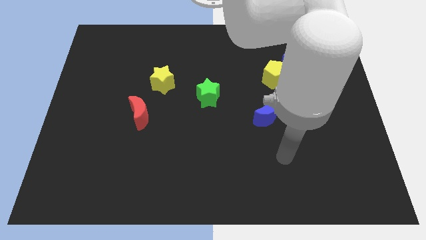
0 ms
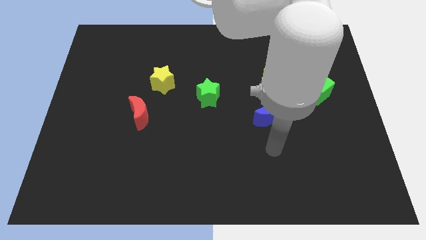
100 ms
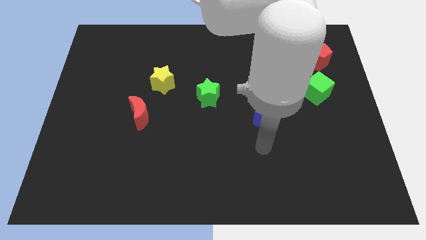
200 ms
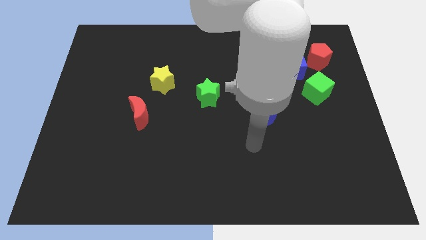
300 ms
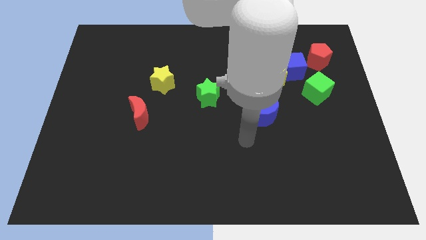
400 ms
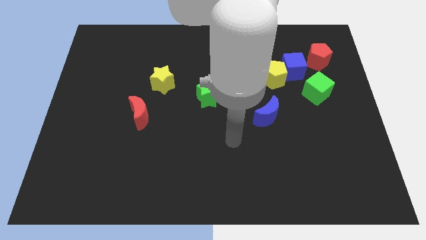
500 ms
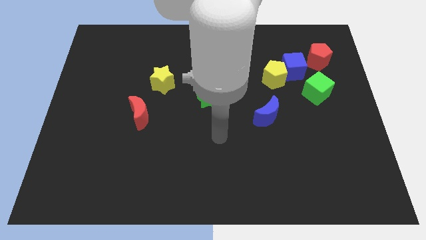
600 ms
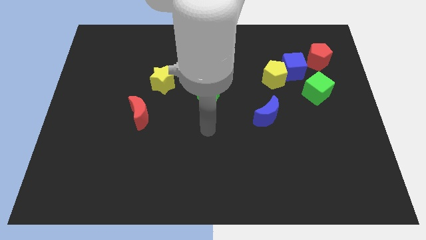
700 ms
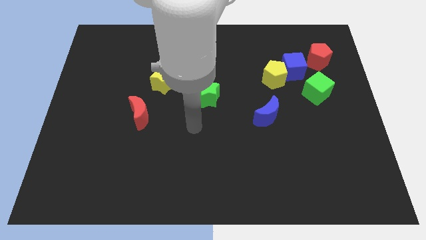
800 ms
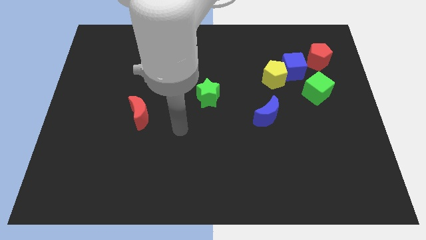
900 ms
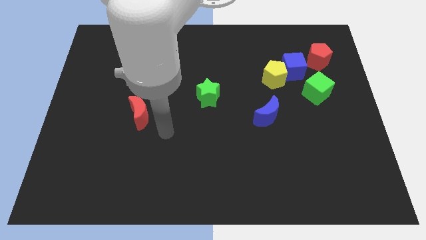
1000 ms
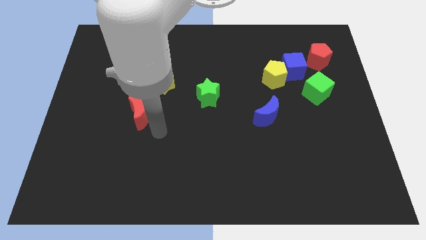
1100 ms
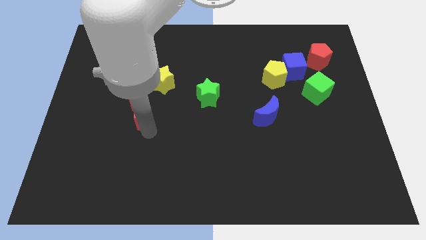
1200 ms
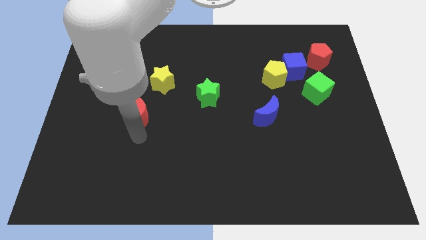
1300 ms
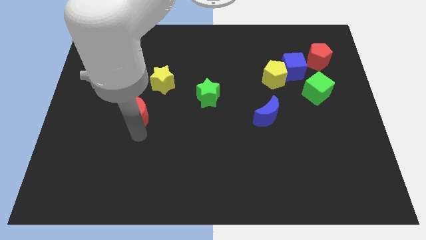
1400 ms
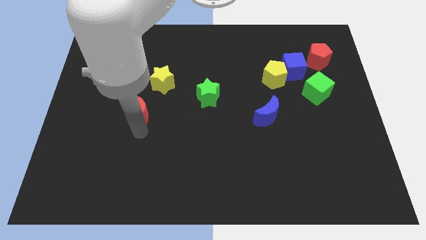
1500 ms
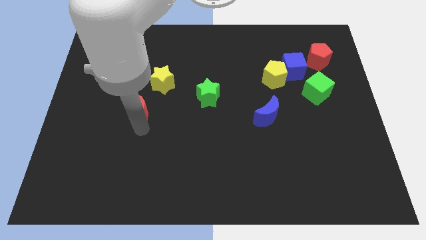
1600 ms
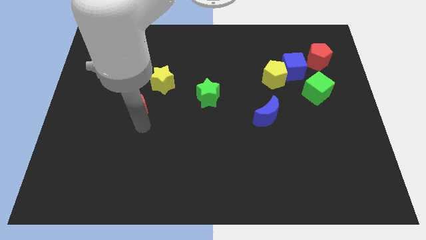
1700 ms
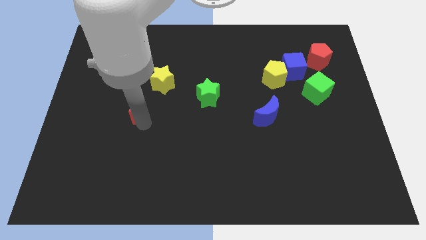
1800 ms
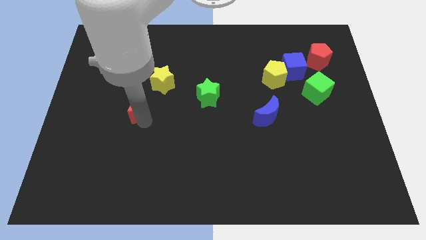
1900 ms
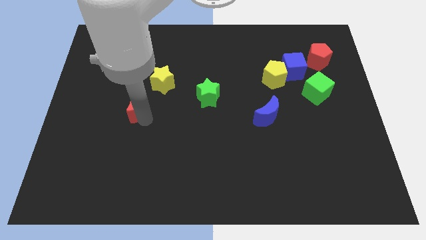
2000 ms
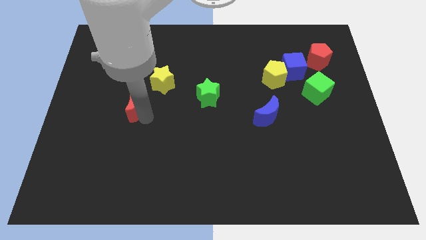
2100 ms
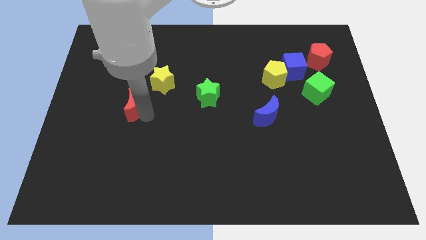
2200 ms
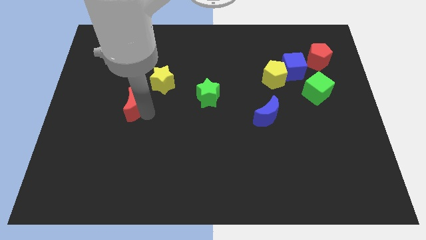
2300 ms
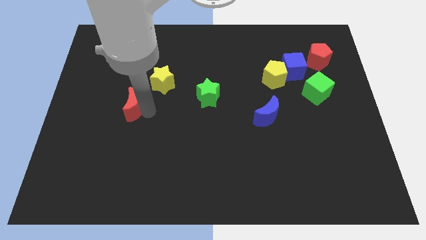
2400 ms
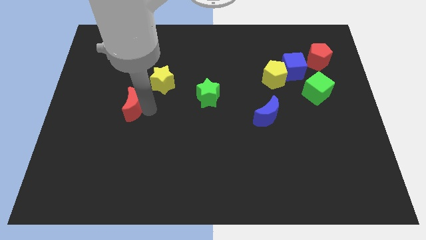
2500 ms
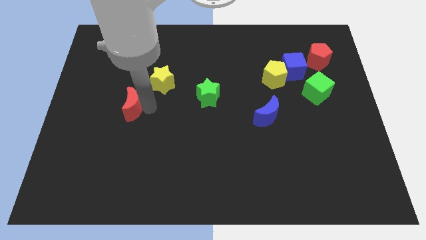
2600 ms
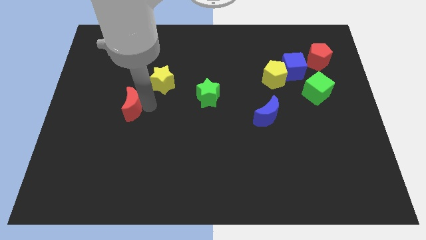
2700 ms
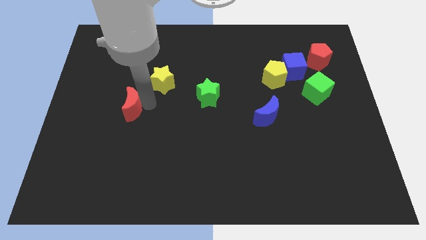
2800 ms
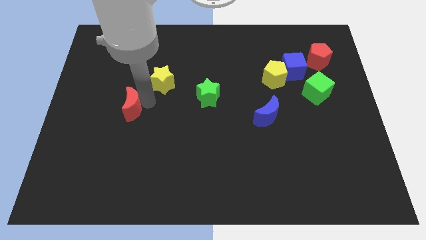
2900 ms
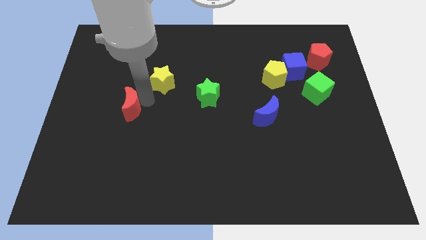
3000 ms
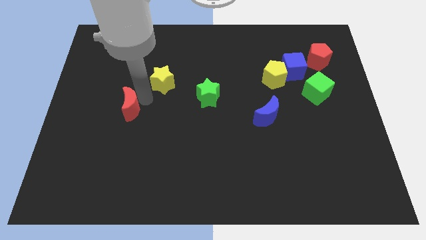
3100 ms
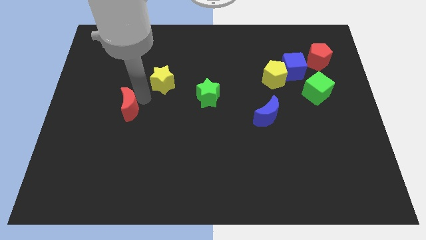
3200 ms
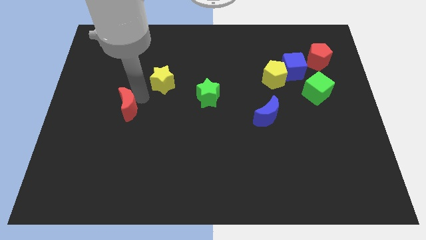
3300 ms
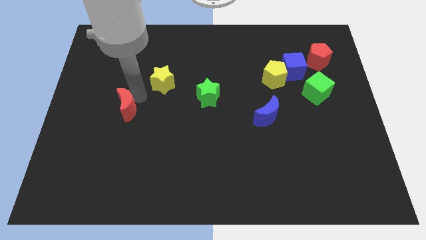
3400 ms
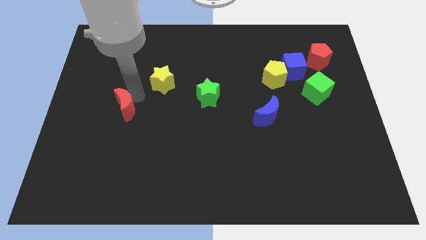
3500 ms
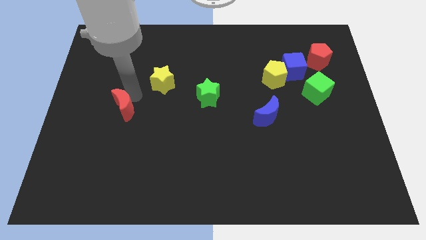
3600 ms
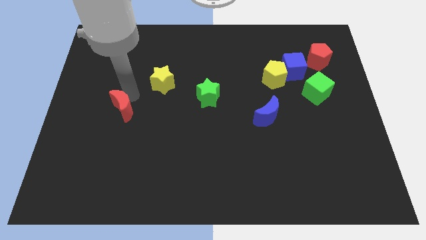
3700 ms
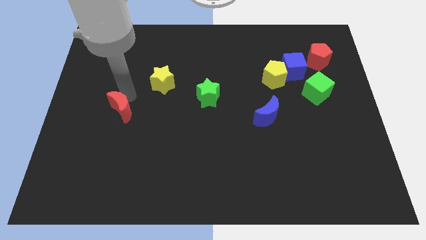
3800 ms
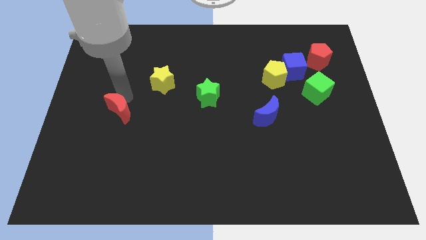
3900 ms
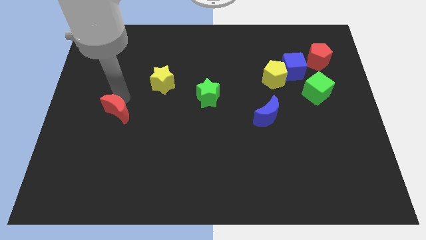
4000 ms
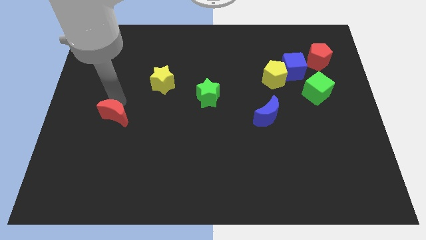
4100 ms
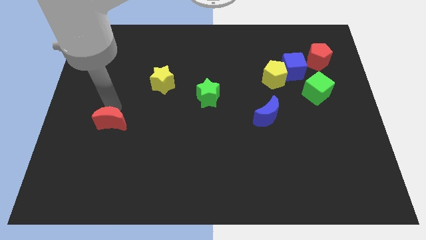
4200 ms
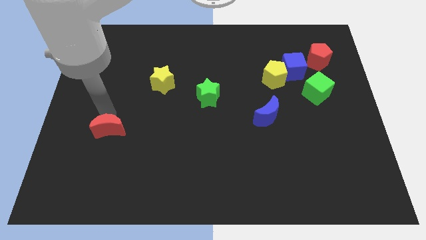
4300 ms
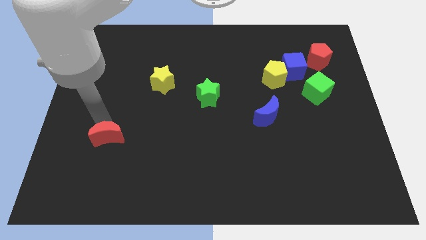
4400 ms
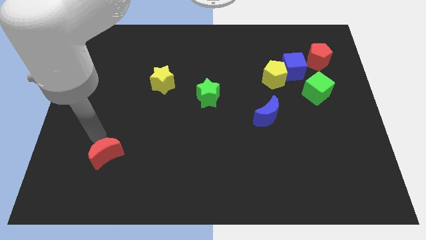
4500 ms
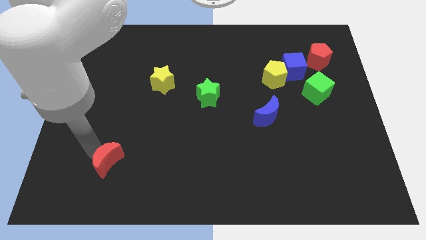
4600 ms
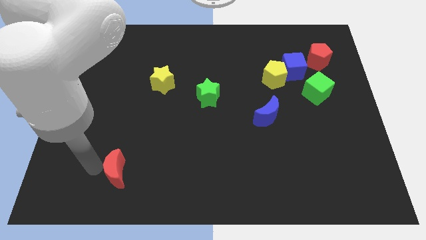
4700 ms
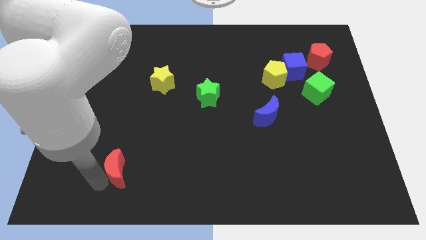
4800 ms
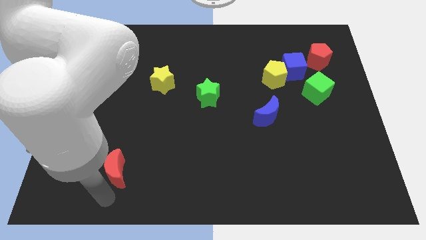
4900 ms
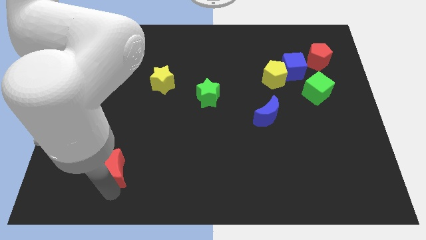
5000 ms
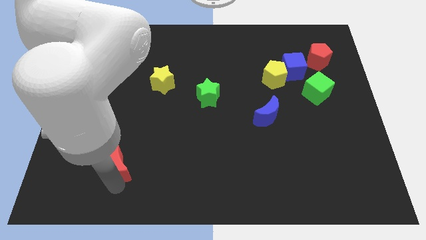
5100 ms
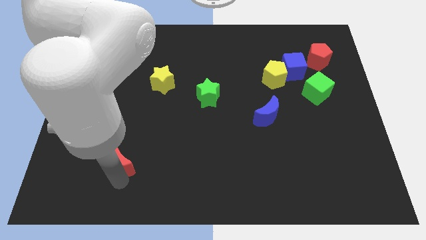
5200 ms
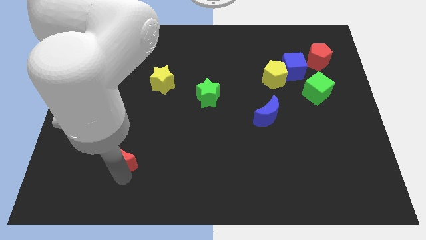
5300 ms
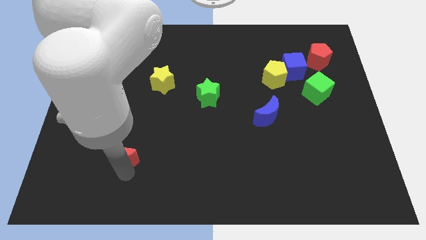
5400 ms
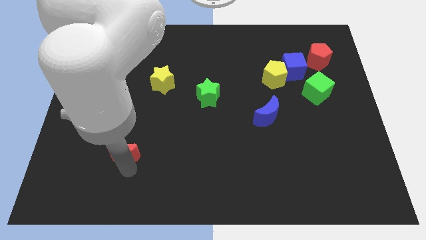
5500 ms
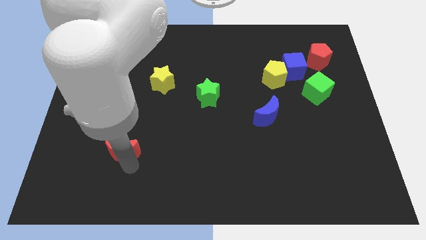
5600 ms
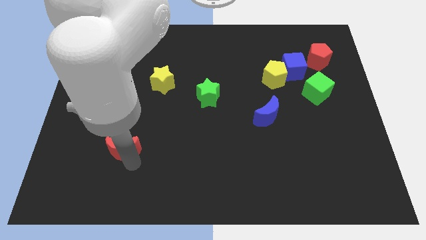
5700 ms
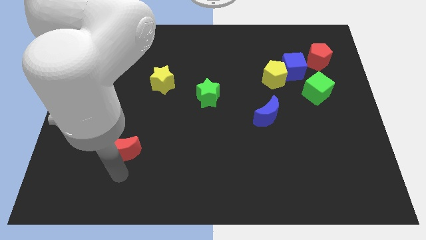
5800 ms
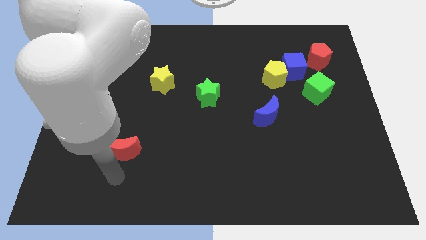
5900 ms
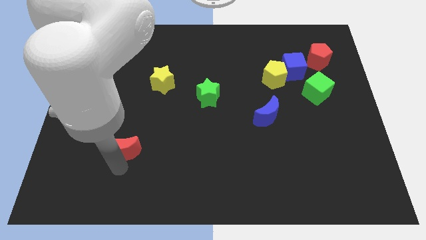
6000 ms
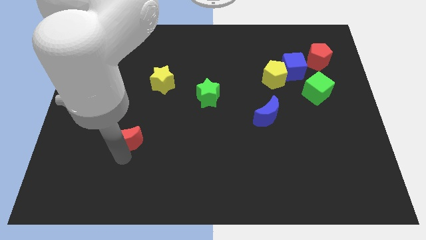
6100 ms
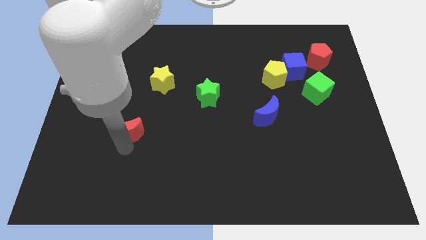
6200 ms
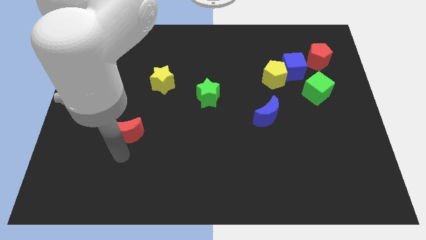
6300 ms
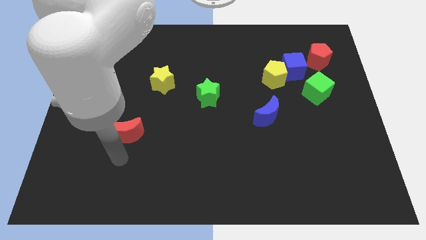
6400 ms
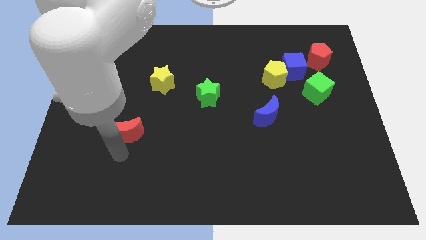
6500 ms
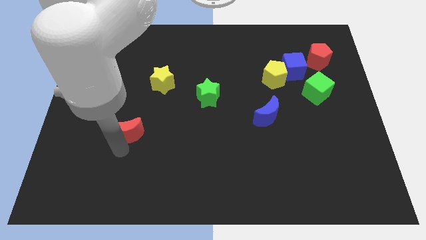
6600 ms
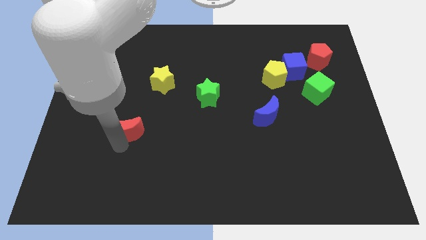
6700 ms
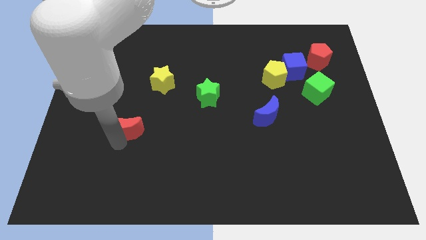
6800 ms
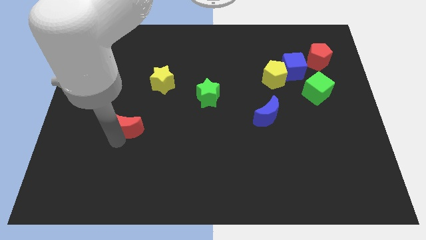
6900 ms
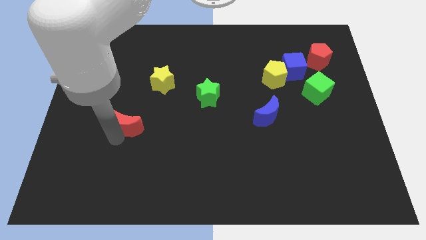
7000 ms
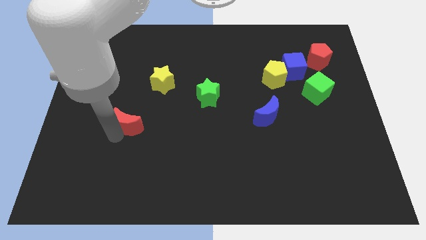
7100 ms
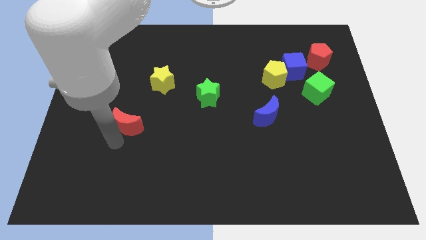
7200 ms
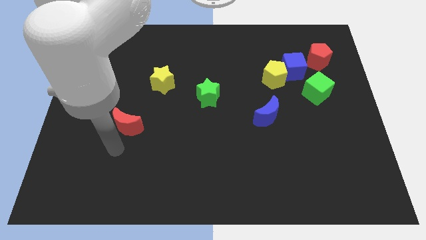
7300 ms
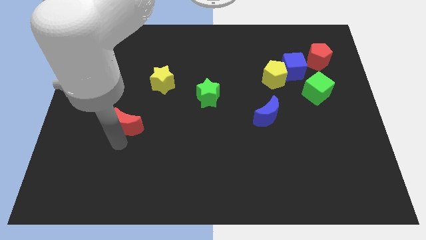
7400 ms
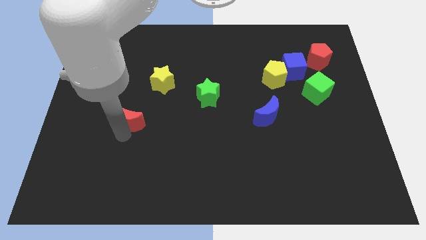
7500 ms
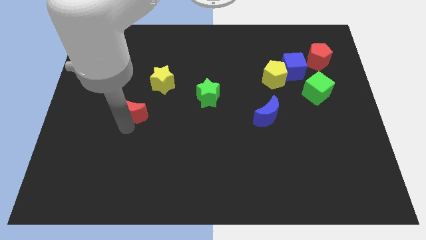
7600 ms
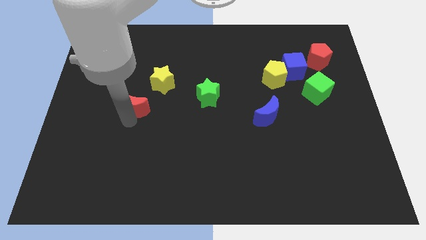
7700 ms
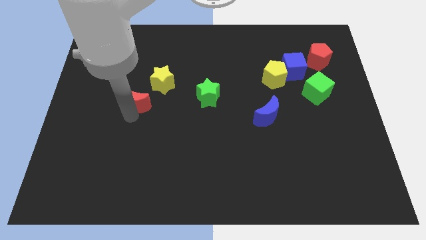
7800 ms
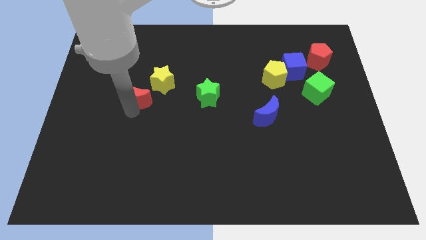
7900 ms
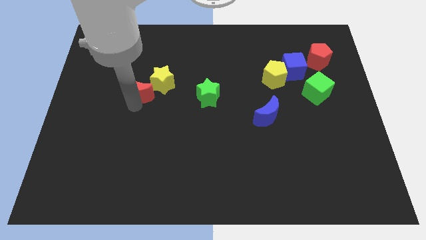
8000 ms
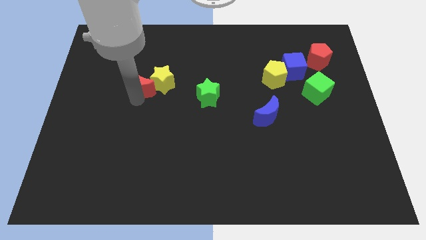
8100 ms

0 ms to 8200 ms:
slide the red moon up slightly

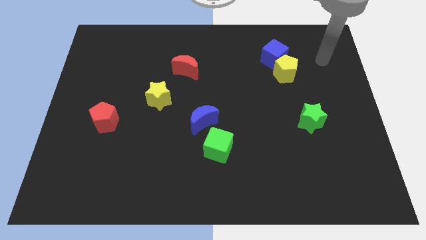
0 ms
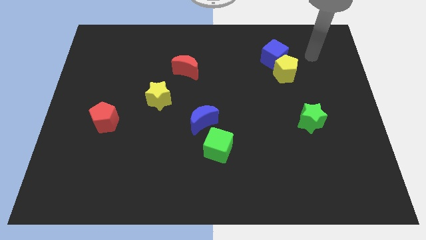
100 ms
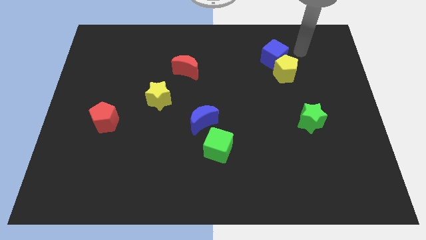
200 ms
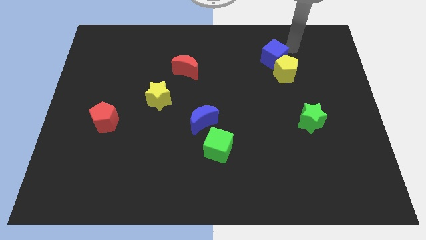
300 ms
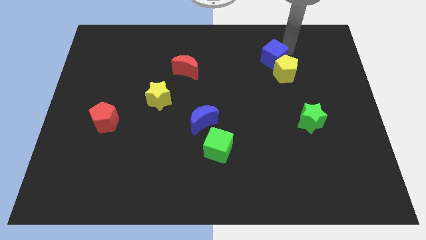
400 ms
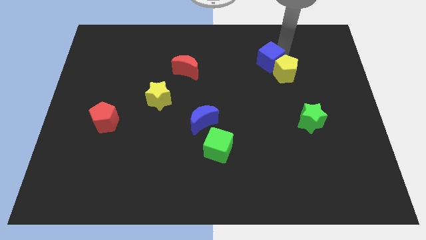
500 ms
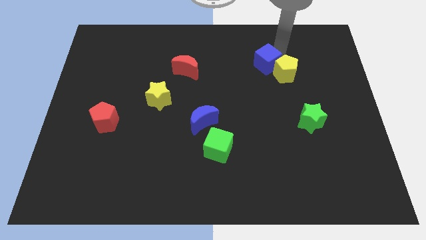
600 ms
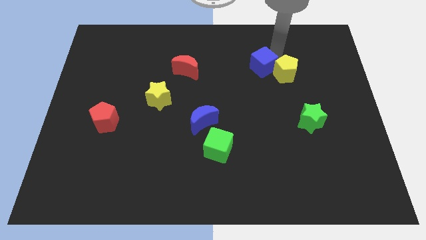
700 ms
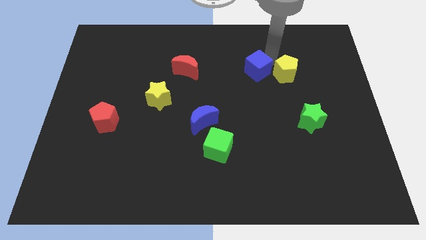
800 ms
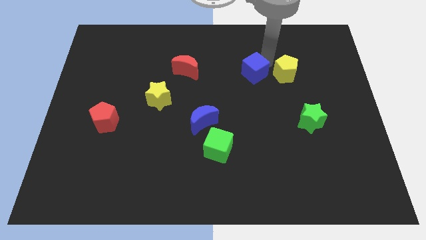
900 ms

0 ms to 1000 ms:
move the blue cube down and then to the left a little bit
